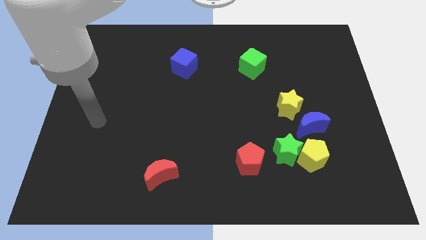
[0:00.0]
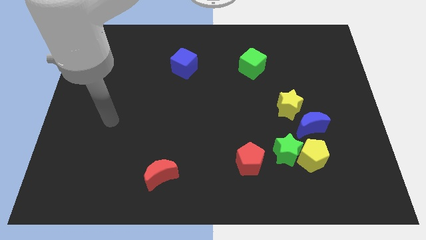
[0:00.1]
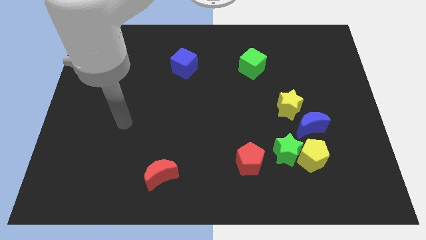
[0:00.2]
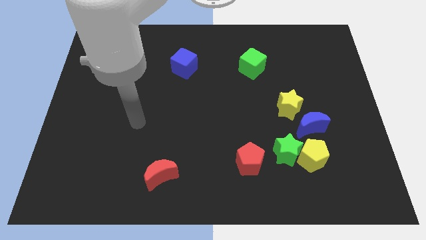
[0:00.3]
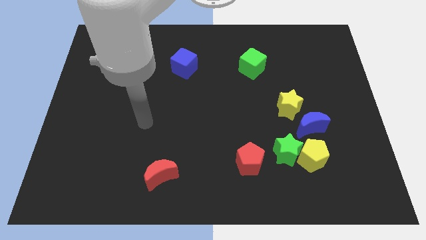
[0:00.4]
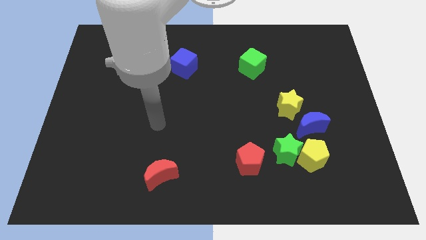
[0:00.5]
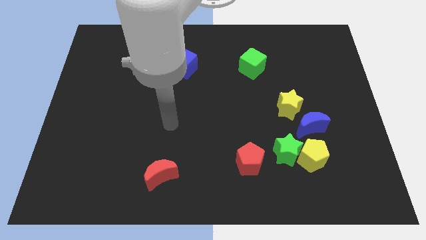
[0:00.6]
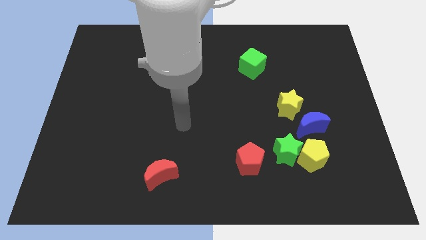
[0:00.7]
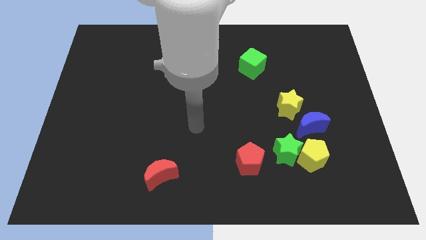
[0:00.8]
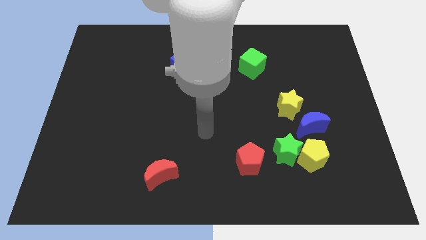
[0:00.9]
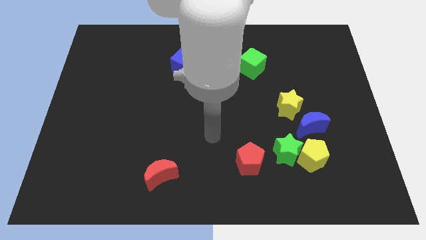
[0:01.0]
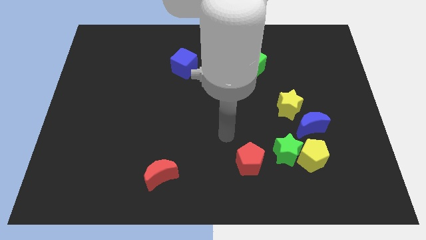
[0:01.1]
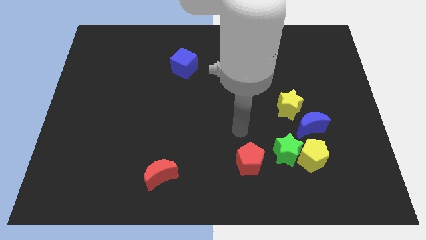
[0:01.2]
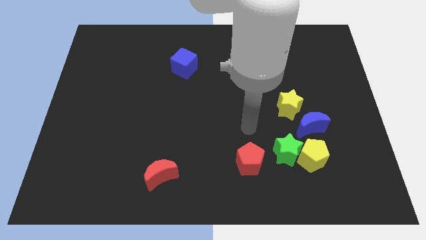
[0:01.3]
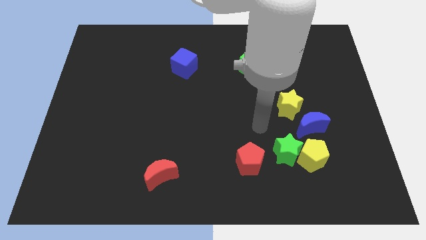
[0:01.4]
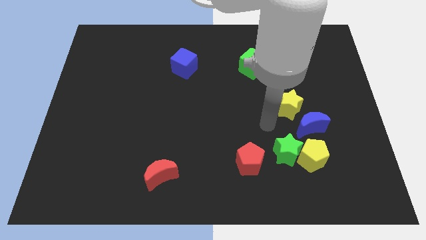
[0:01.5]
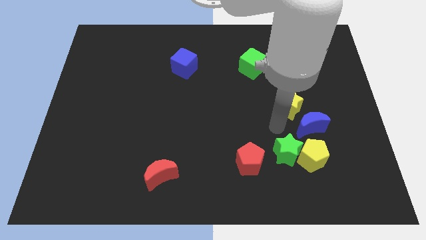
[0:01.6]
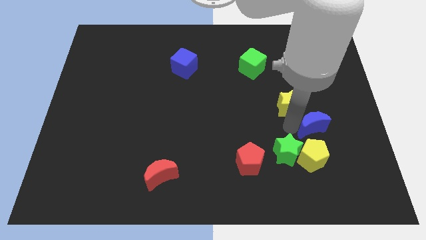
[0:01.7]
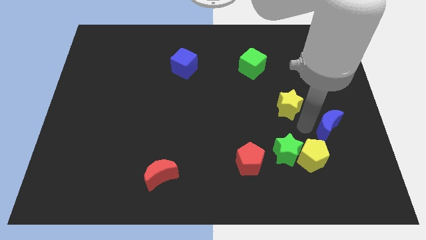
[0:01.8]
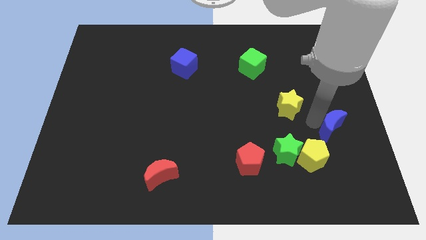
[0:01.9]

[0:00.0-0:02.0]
pull the yellow star apart from the blue moon

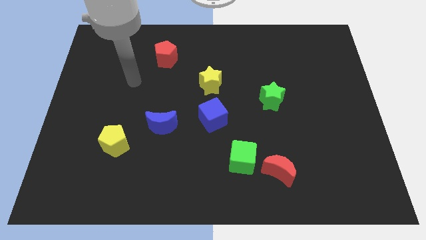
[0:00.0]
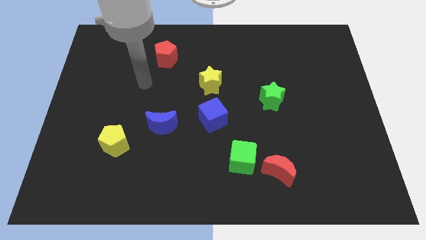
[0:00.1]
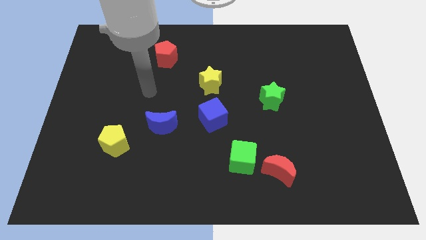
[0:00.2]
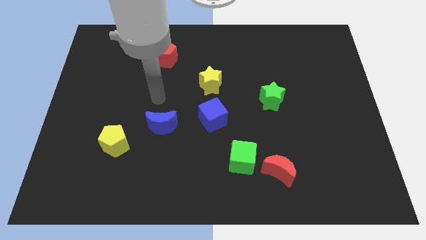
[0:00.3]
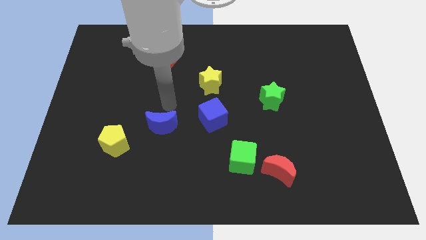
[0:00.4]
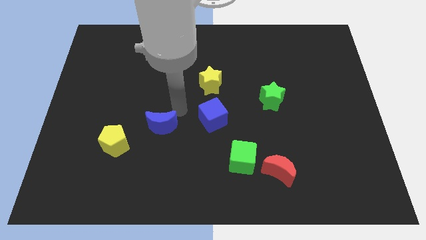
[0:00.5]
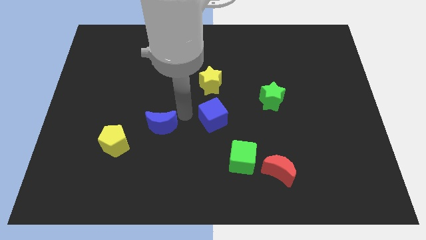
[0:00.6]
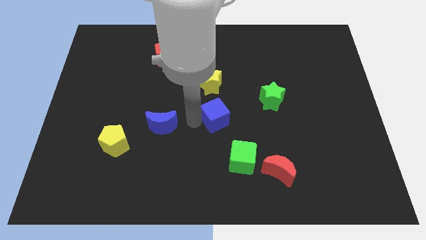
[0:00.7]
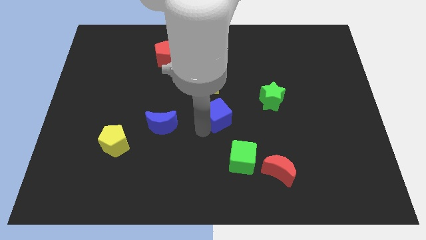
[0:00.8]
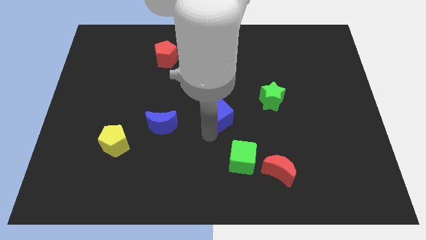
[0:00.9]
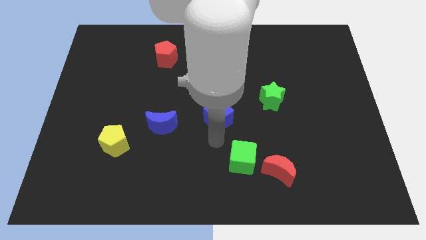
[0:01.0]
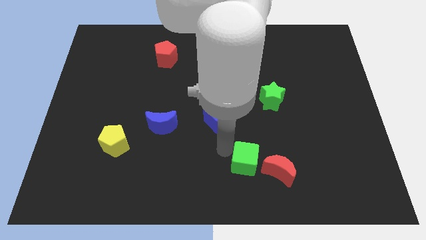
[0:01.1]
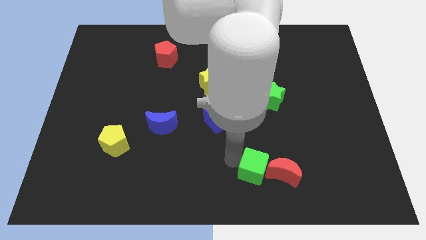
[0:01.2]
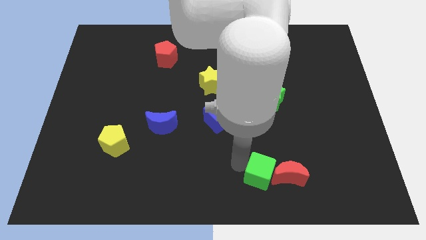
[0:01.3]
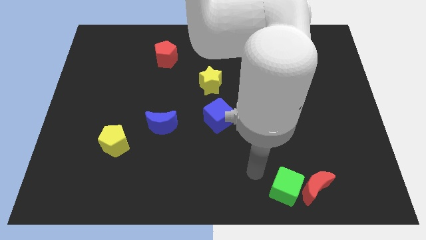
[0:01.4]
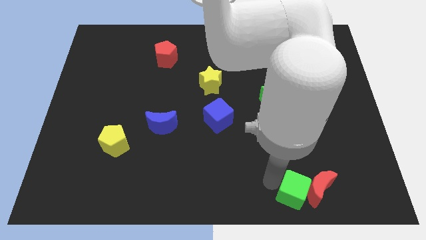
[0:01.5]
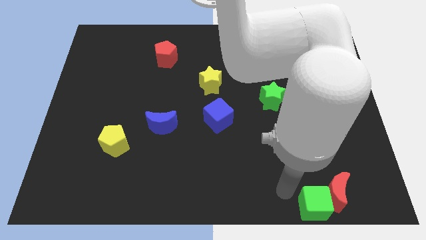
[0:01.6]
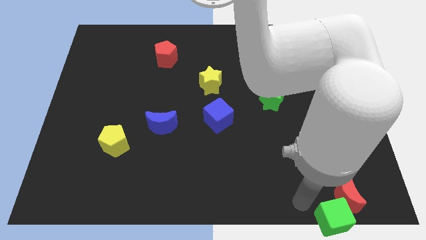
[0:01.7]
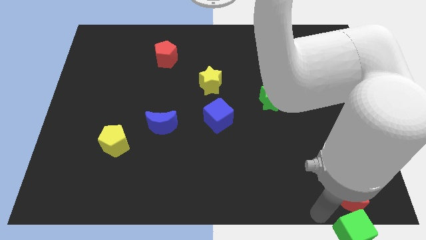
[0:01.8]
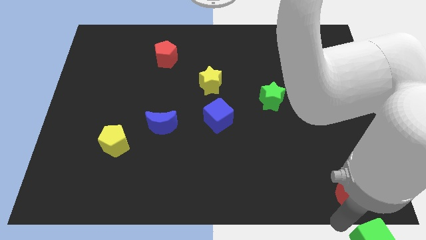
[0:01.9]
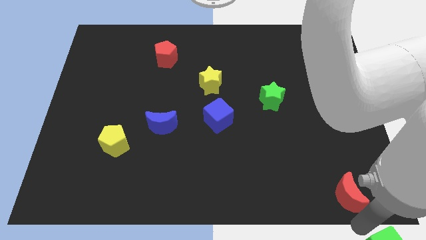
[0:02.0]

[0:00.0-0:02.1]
separate the red moon from the green cube

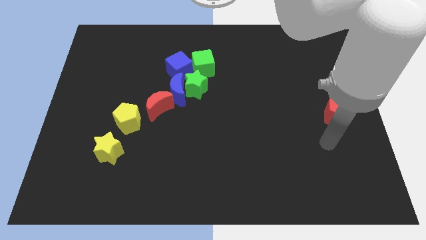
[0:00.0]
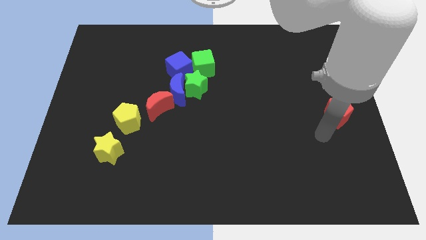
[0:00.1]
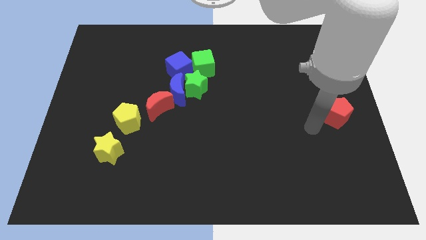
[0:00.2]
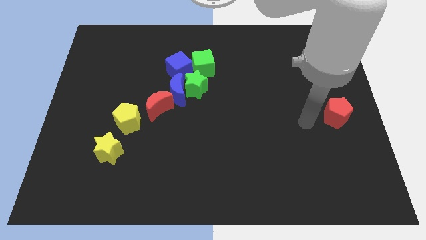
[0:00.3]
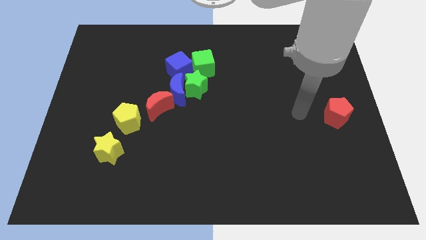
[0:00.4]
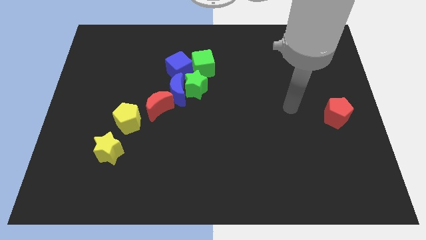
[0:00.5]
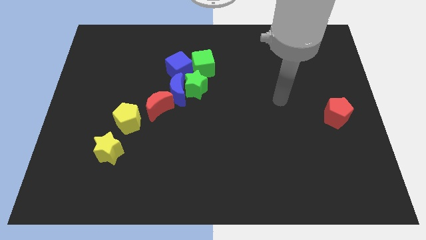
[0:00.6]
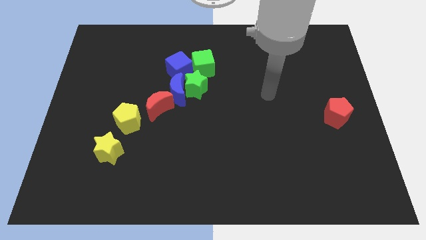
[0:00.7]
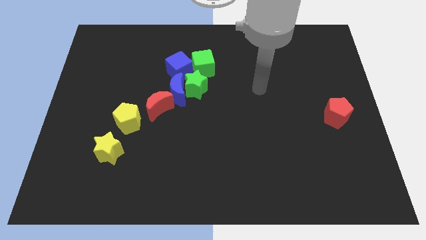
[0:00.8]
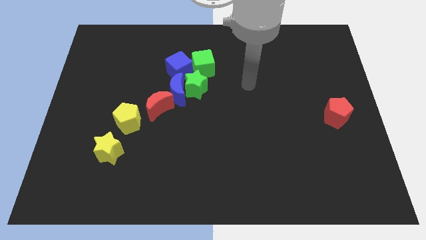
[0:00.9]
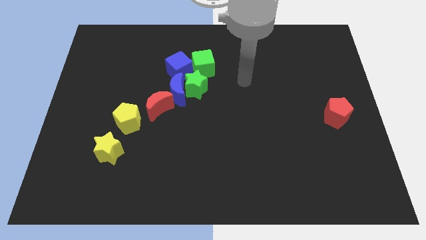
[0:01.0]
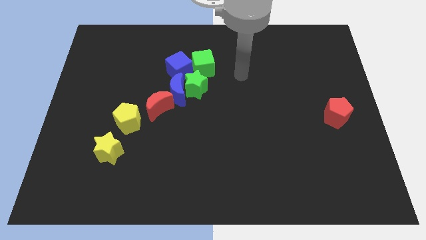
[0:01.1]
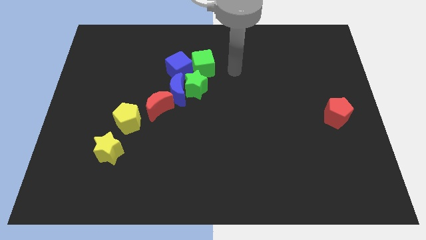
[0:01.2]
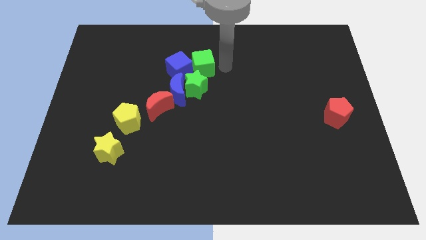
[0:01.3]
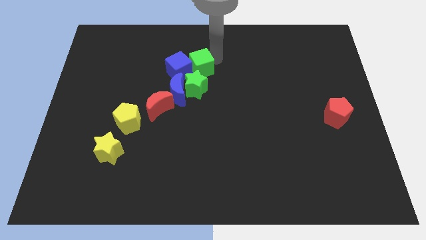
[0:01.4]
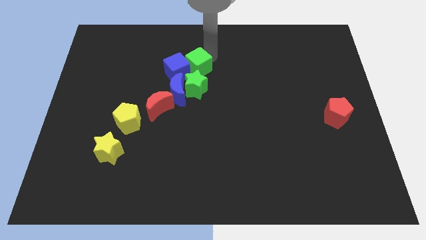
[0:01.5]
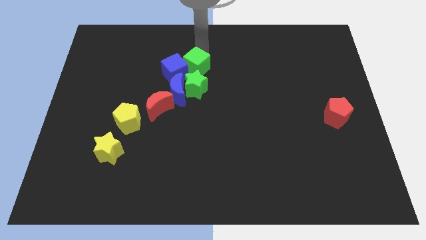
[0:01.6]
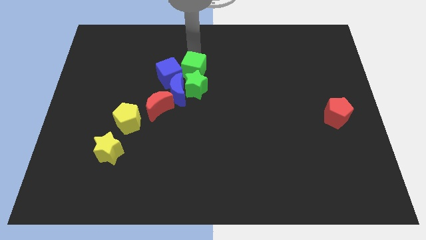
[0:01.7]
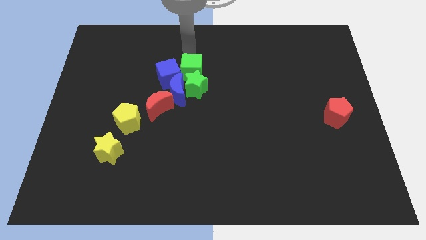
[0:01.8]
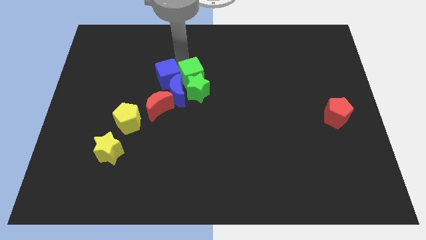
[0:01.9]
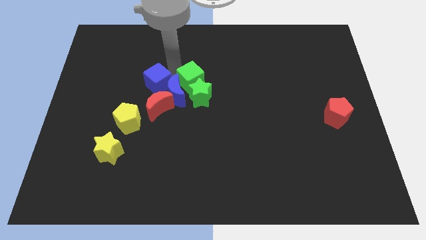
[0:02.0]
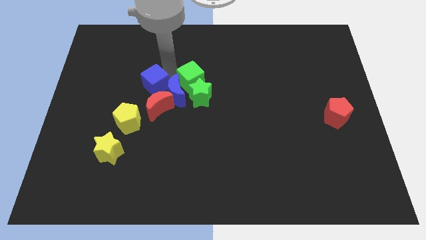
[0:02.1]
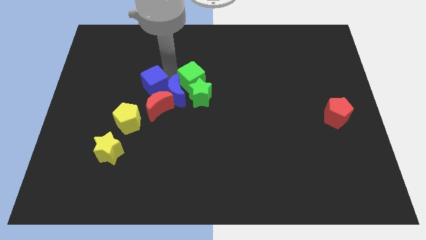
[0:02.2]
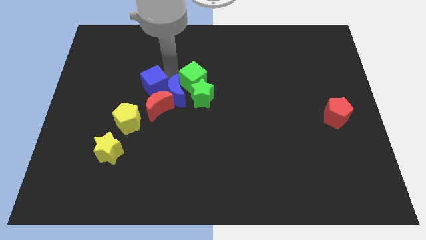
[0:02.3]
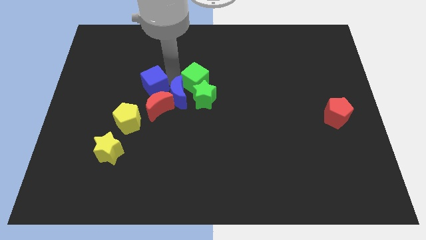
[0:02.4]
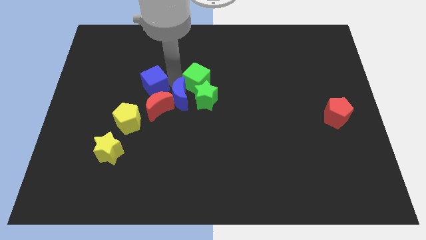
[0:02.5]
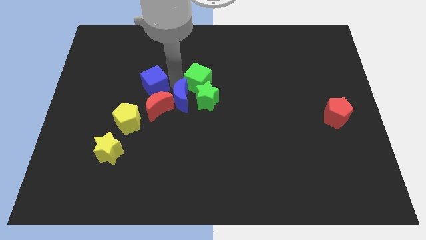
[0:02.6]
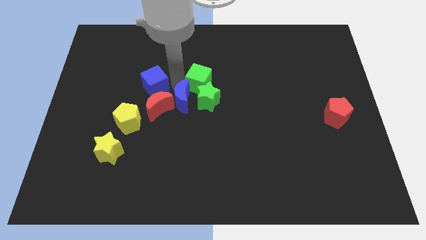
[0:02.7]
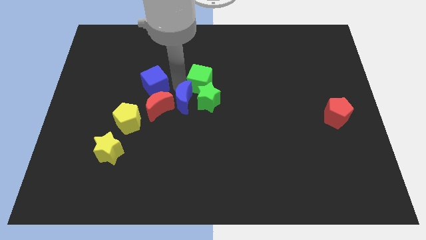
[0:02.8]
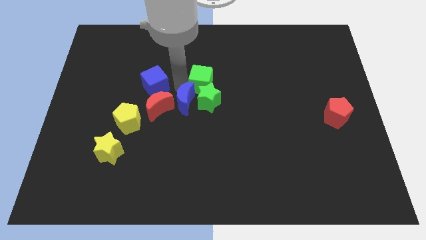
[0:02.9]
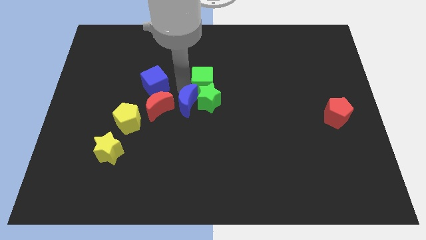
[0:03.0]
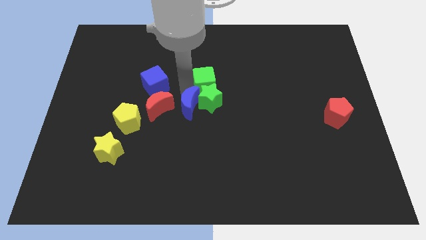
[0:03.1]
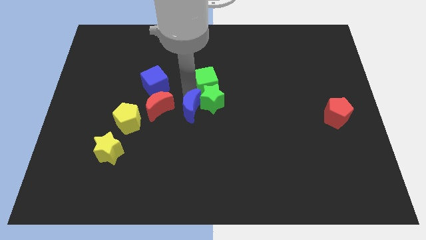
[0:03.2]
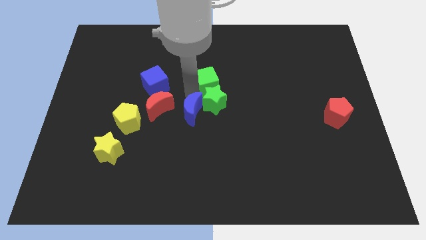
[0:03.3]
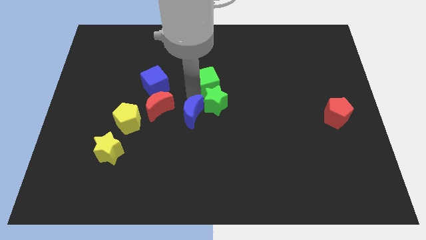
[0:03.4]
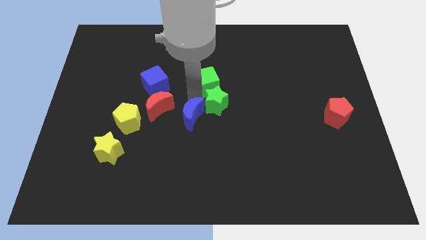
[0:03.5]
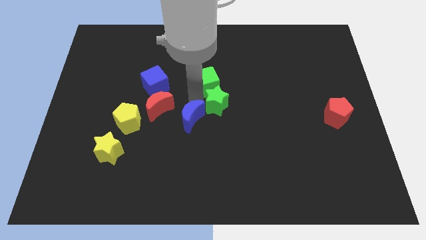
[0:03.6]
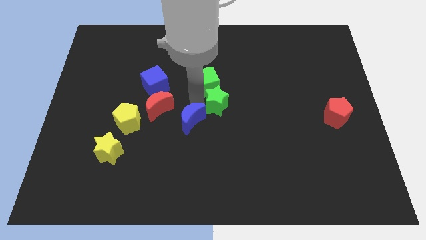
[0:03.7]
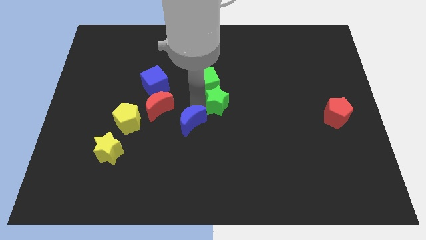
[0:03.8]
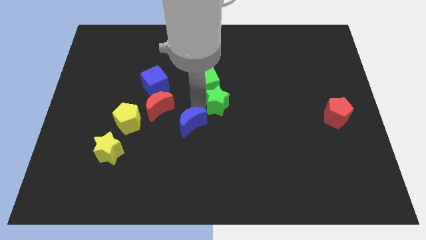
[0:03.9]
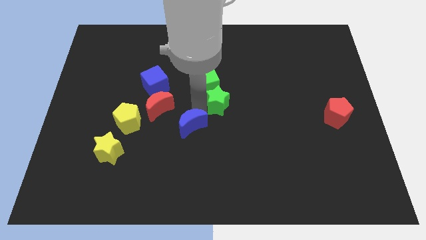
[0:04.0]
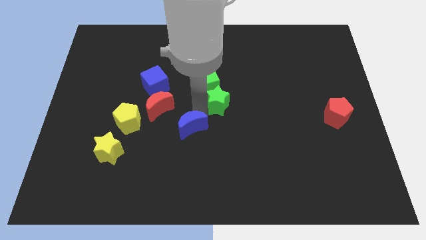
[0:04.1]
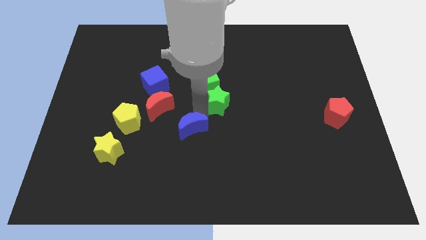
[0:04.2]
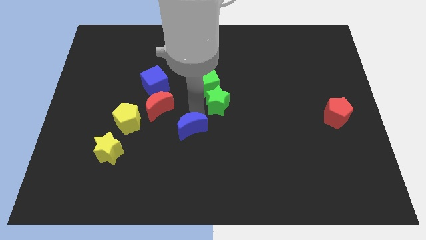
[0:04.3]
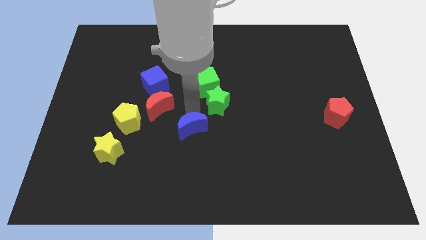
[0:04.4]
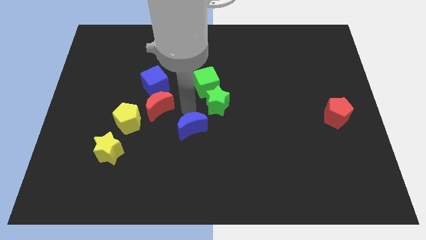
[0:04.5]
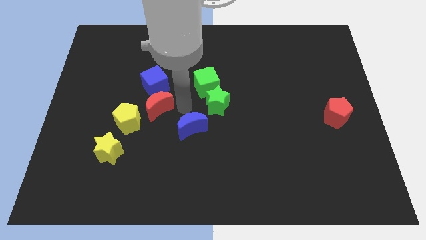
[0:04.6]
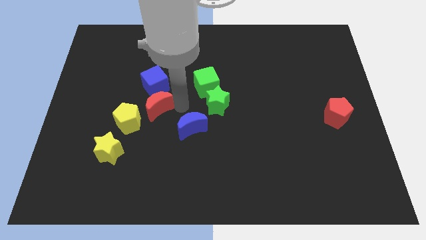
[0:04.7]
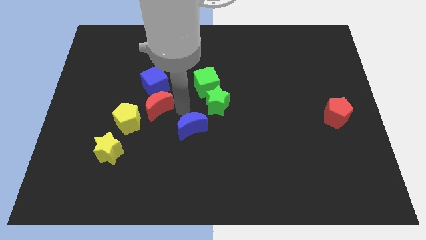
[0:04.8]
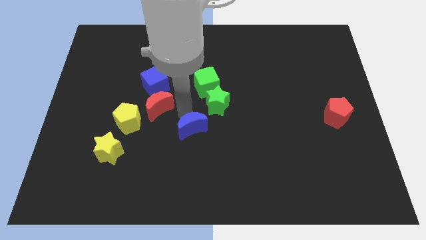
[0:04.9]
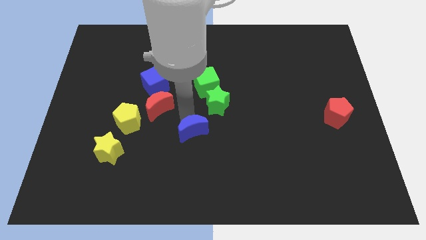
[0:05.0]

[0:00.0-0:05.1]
separate the blue moon from the green star, red moon, and blue cube

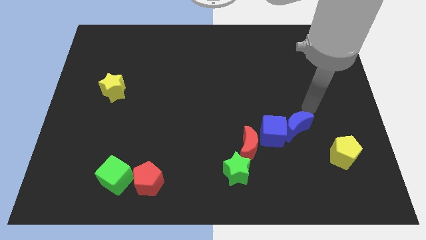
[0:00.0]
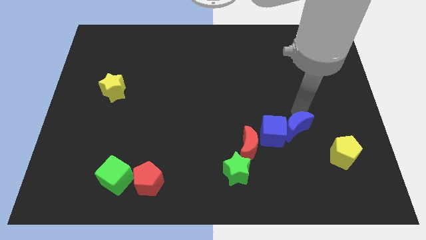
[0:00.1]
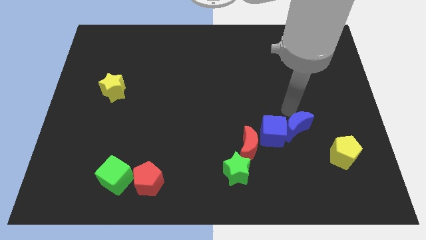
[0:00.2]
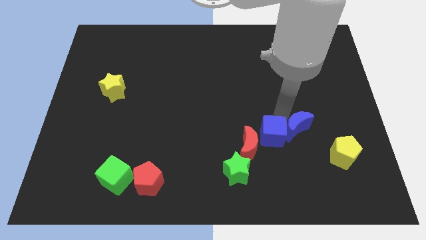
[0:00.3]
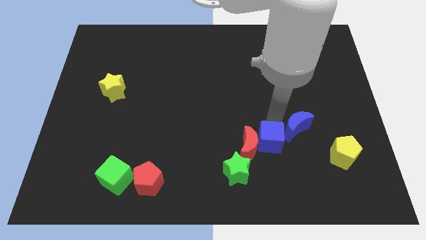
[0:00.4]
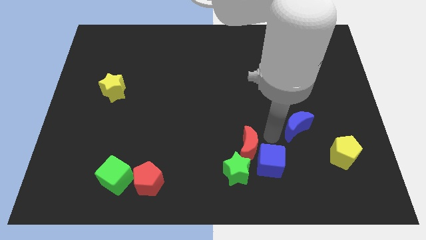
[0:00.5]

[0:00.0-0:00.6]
pull the blue moon apart from the blue cube
